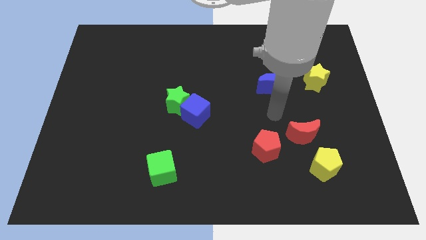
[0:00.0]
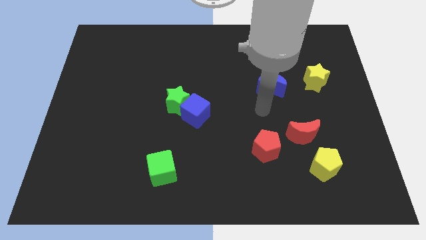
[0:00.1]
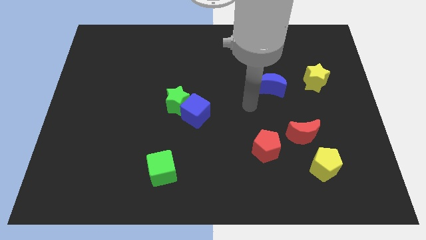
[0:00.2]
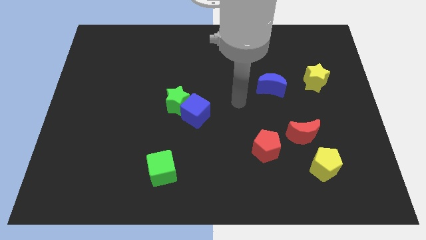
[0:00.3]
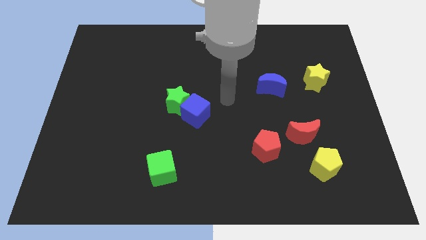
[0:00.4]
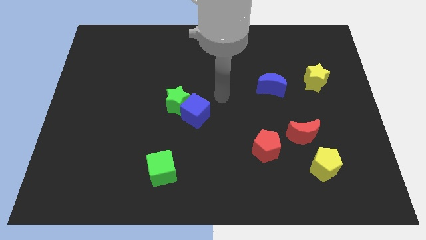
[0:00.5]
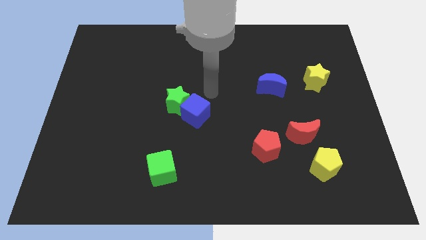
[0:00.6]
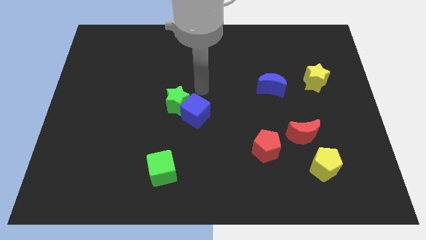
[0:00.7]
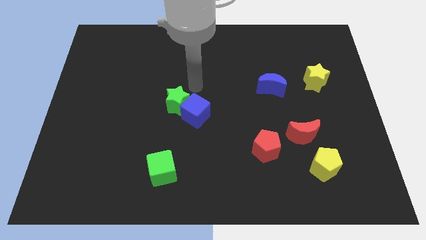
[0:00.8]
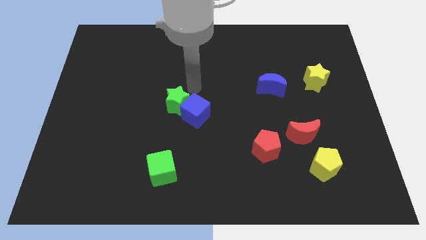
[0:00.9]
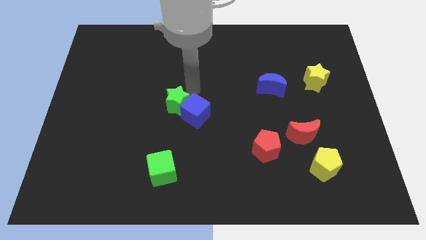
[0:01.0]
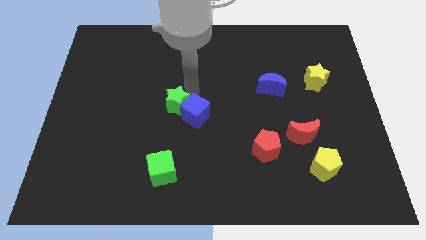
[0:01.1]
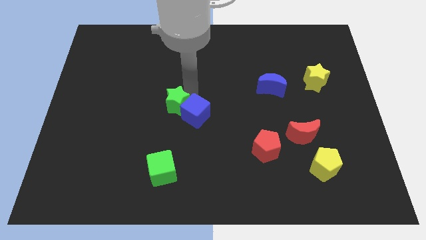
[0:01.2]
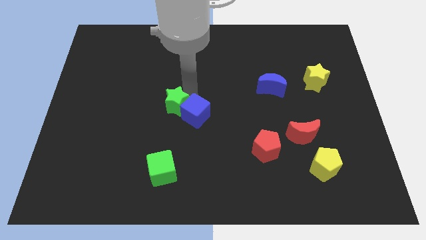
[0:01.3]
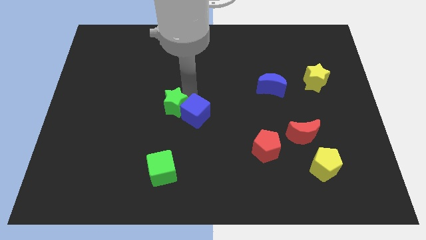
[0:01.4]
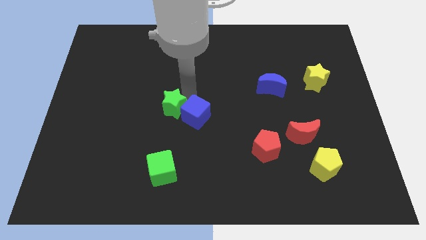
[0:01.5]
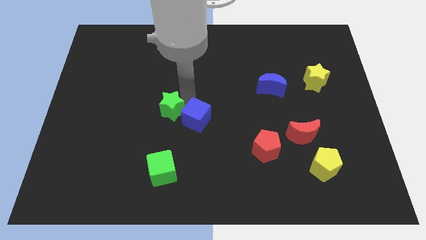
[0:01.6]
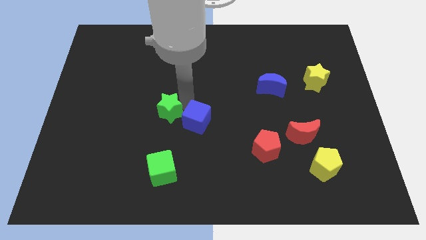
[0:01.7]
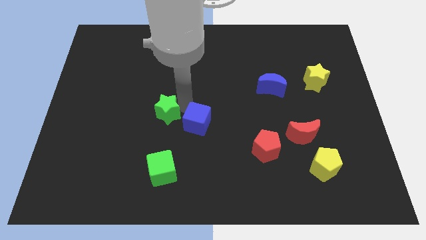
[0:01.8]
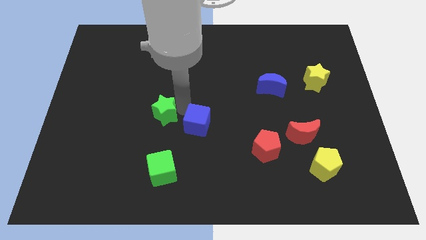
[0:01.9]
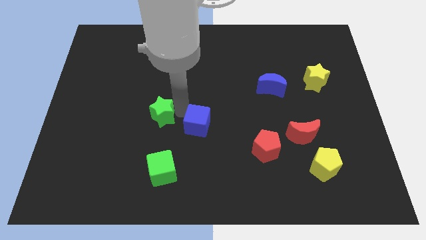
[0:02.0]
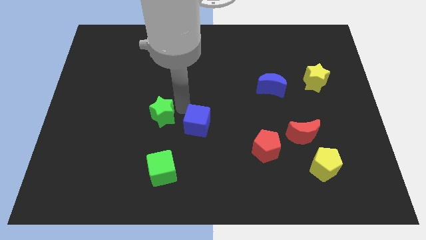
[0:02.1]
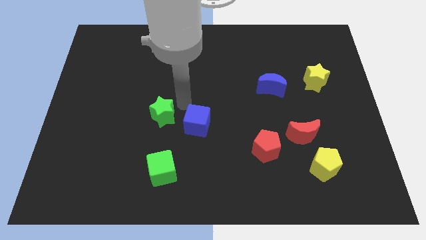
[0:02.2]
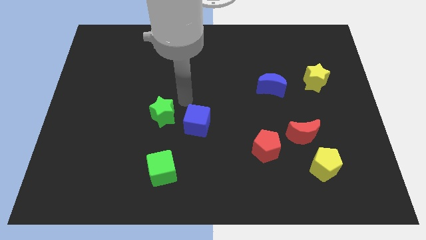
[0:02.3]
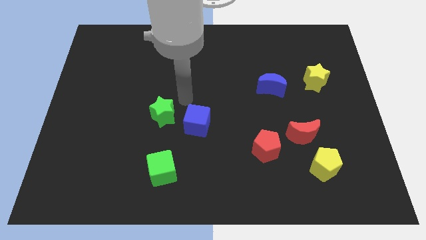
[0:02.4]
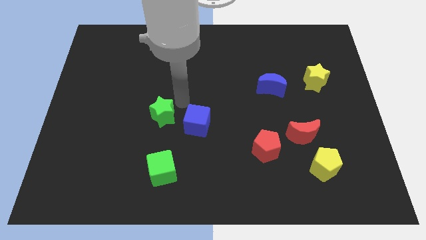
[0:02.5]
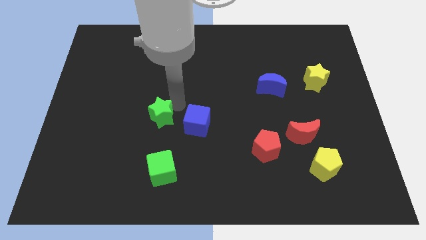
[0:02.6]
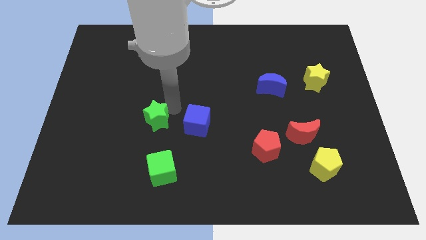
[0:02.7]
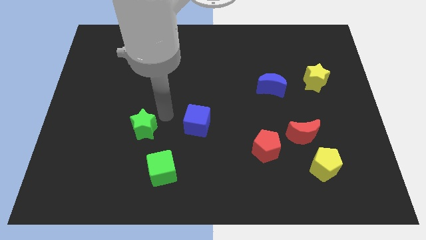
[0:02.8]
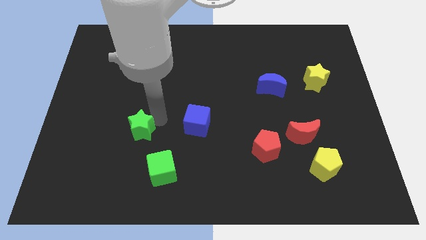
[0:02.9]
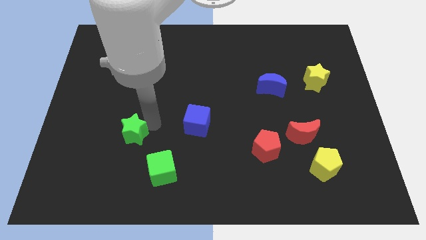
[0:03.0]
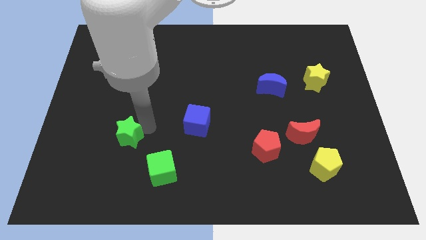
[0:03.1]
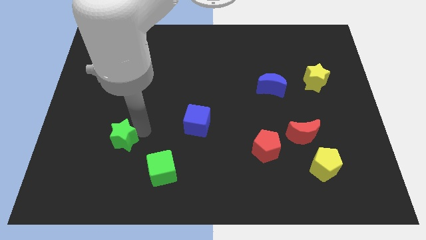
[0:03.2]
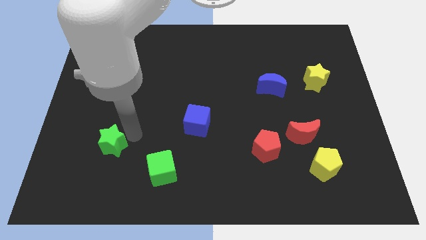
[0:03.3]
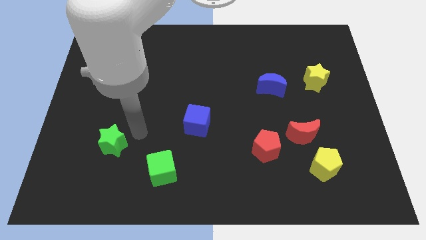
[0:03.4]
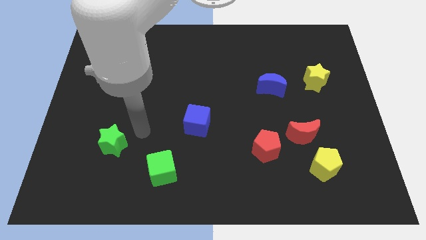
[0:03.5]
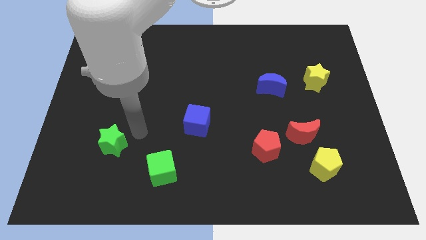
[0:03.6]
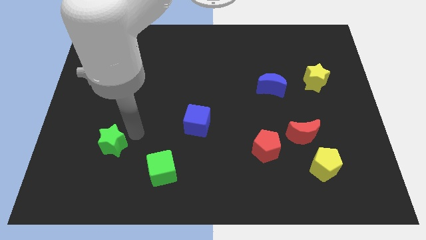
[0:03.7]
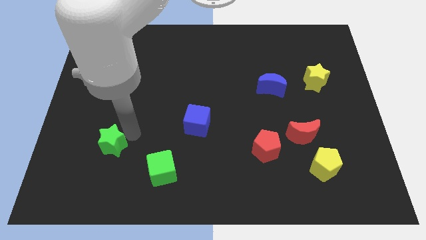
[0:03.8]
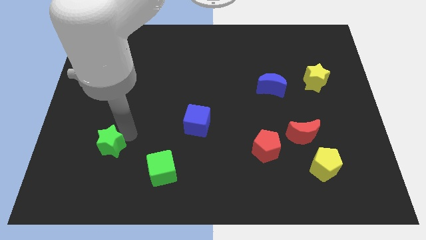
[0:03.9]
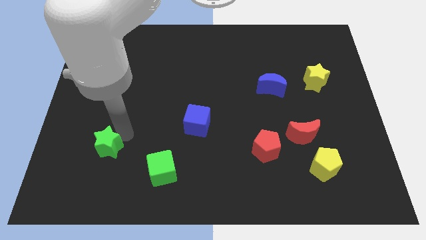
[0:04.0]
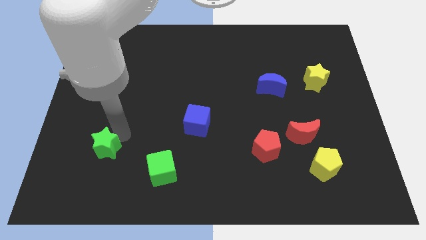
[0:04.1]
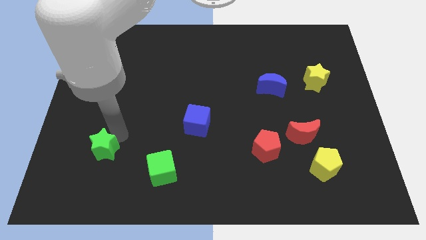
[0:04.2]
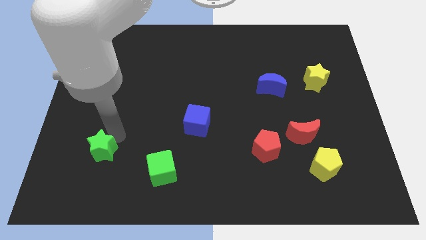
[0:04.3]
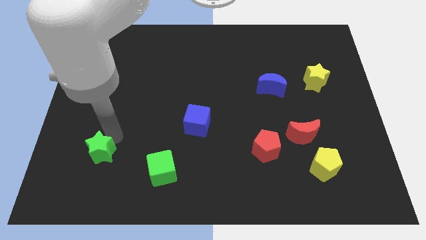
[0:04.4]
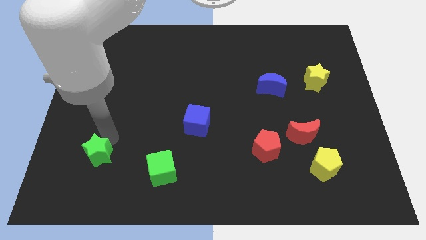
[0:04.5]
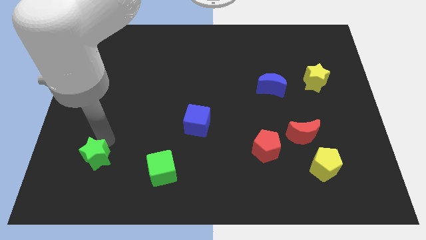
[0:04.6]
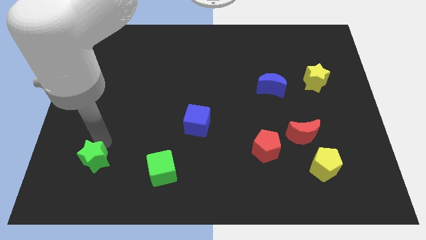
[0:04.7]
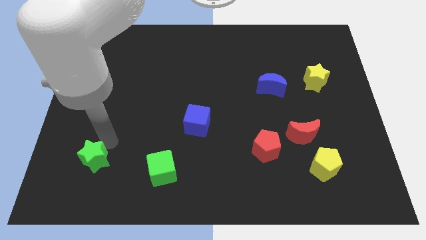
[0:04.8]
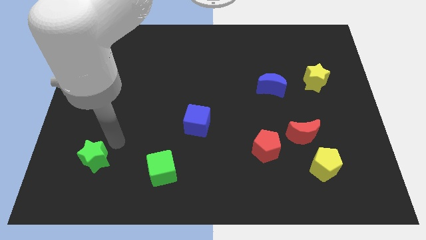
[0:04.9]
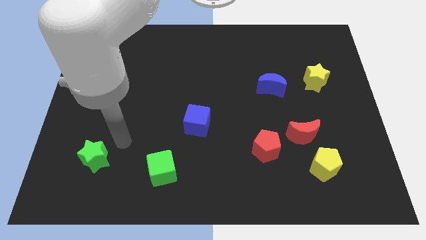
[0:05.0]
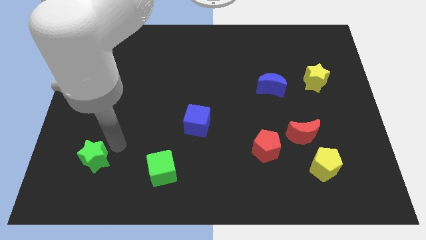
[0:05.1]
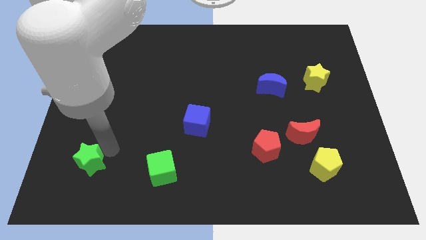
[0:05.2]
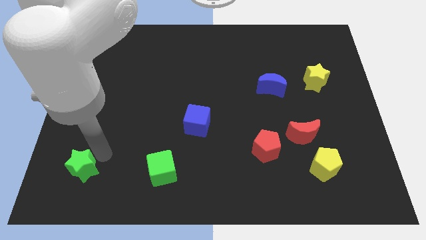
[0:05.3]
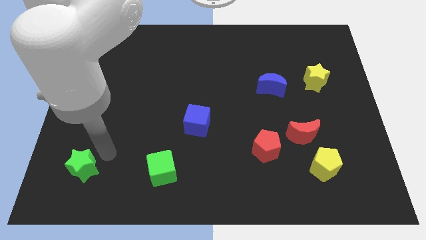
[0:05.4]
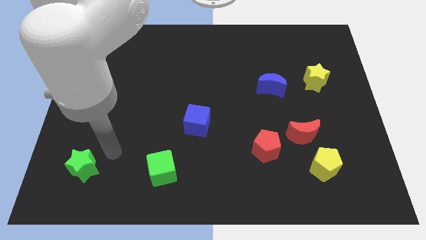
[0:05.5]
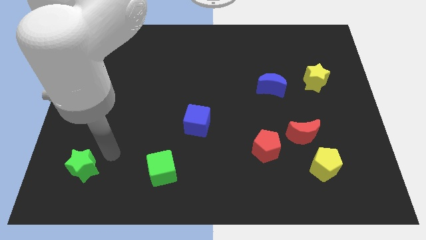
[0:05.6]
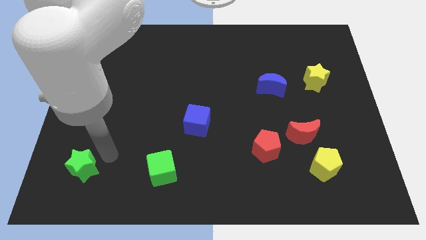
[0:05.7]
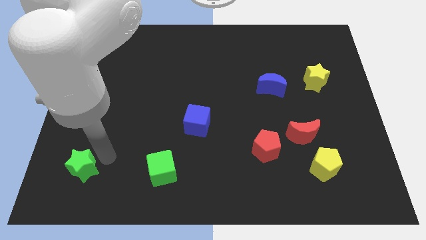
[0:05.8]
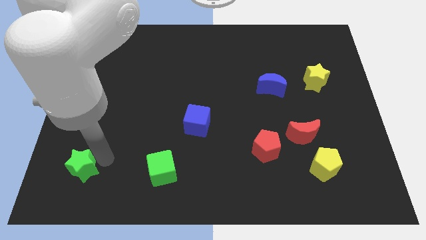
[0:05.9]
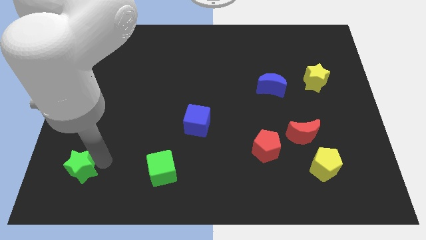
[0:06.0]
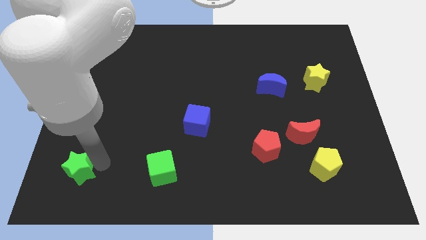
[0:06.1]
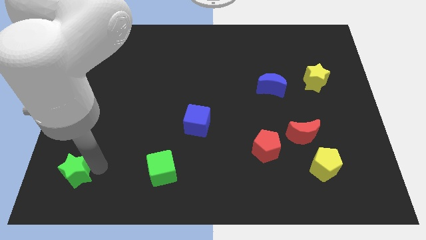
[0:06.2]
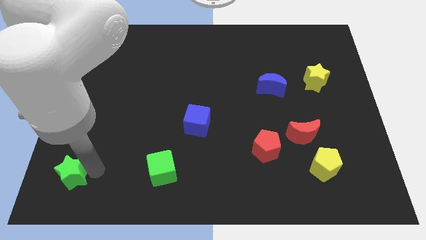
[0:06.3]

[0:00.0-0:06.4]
move the green star to the bottom left corner
